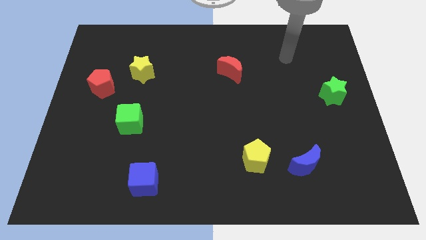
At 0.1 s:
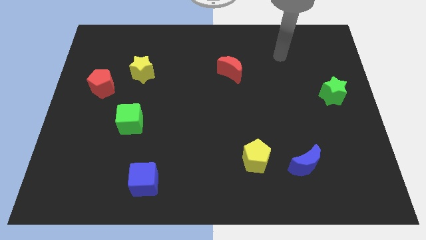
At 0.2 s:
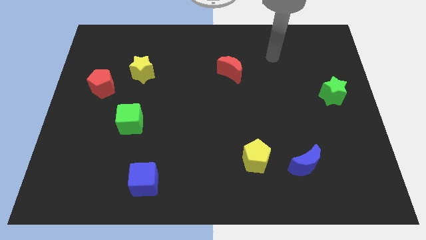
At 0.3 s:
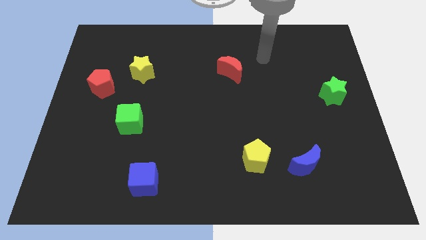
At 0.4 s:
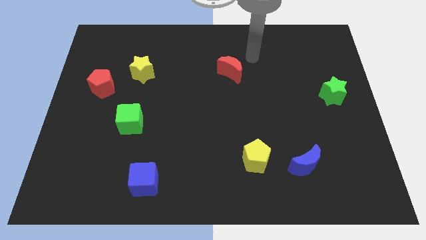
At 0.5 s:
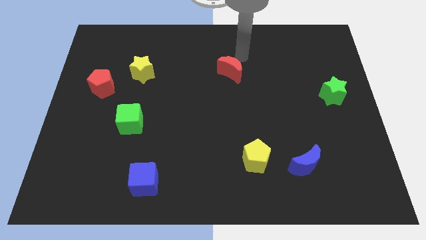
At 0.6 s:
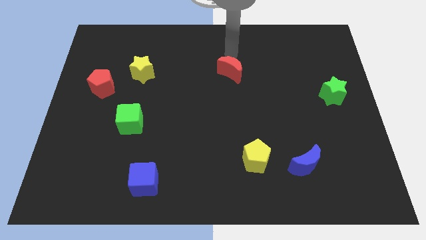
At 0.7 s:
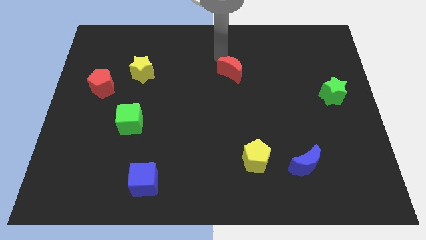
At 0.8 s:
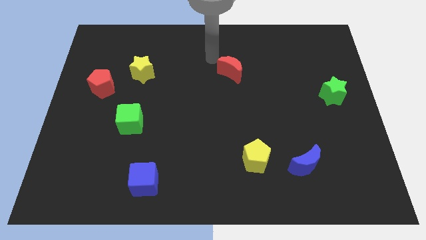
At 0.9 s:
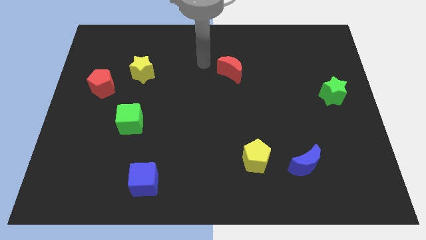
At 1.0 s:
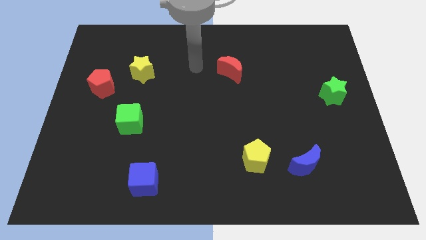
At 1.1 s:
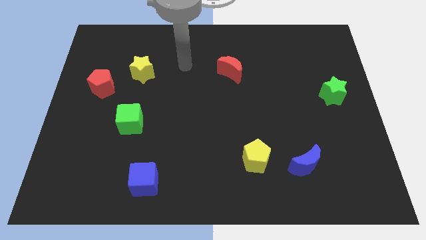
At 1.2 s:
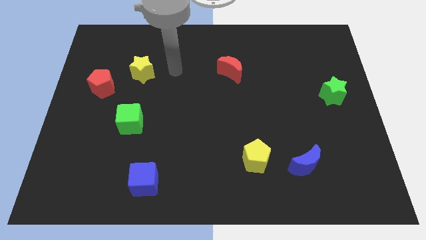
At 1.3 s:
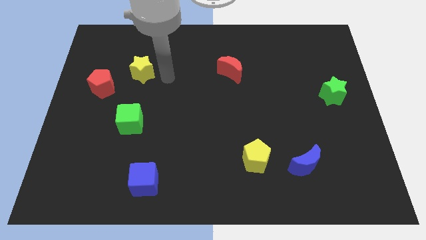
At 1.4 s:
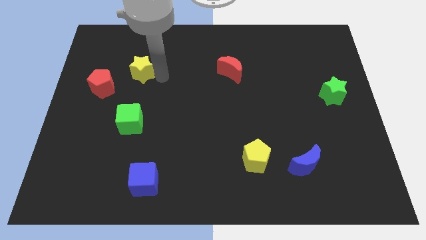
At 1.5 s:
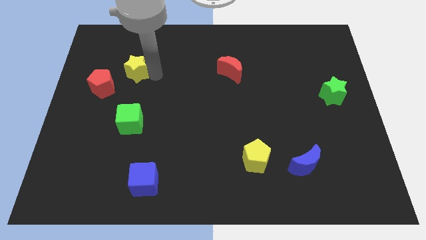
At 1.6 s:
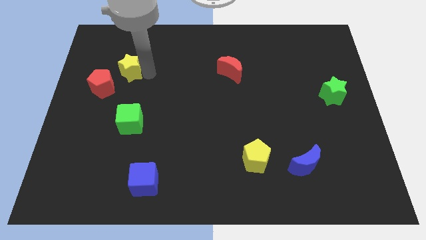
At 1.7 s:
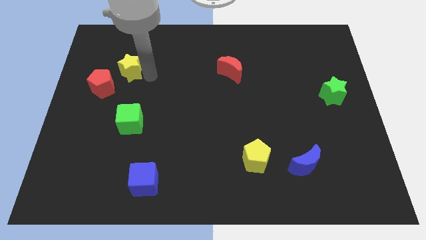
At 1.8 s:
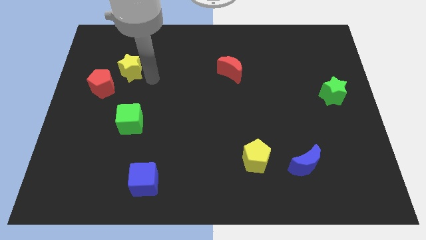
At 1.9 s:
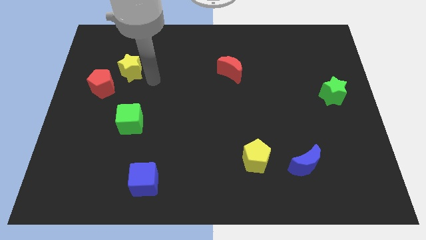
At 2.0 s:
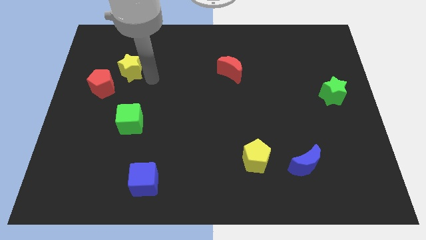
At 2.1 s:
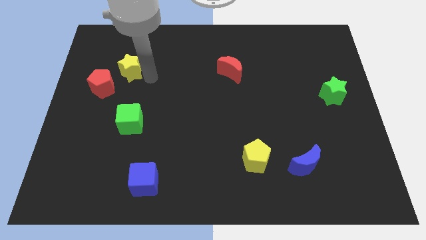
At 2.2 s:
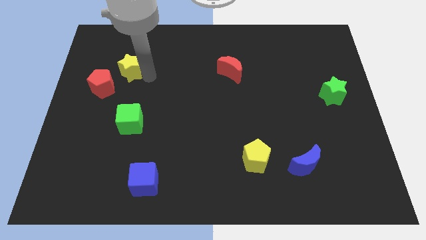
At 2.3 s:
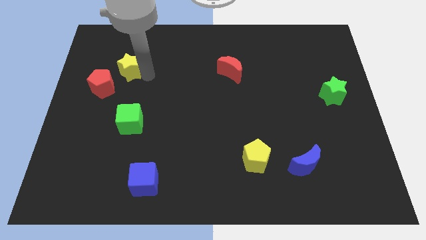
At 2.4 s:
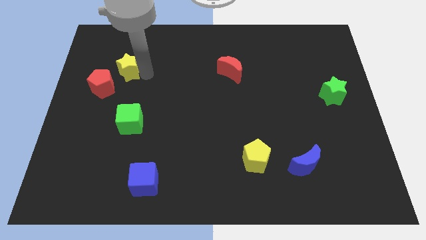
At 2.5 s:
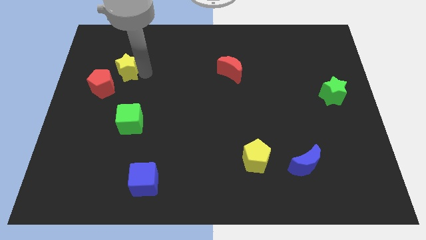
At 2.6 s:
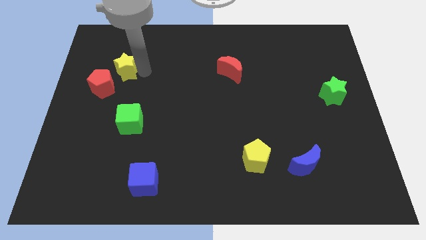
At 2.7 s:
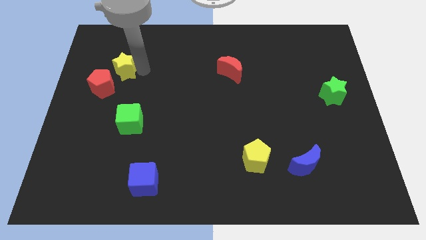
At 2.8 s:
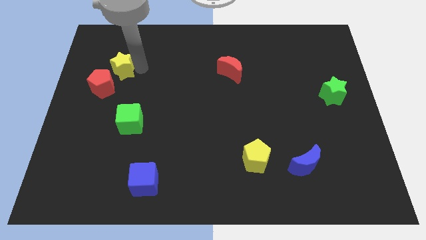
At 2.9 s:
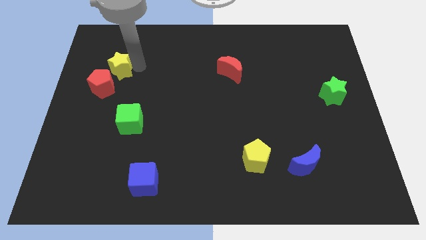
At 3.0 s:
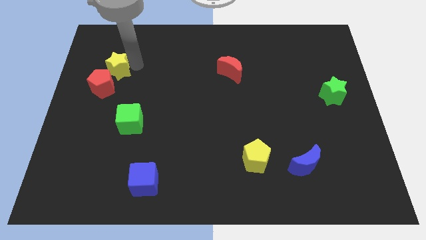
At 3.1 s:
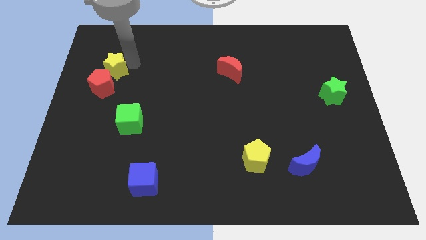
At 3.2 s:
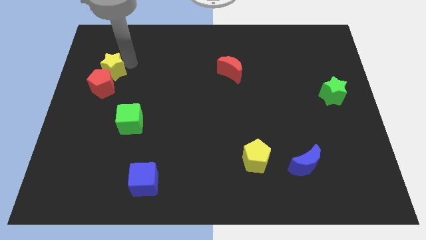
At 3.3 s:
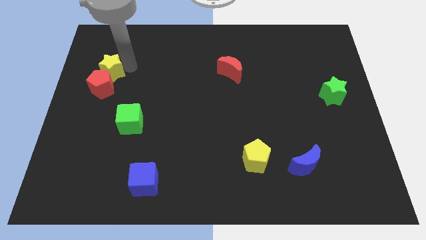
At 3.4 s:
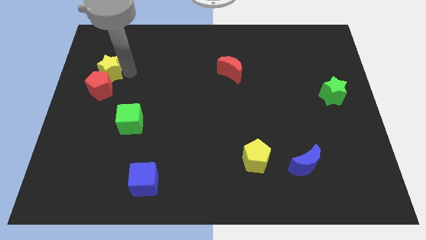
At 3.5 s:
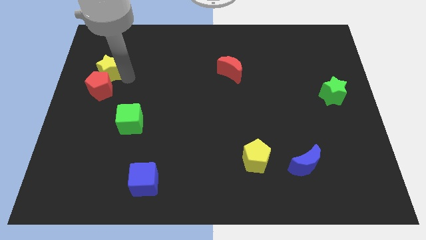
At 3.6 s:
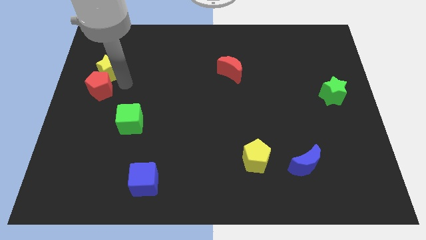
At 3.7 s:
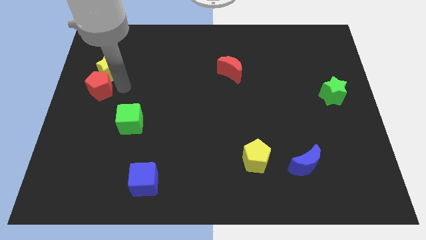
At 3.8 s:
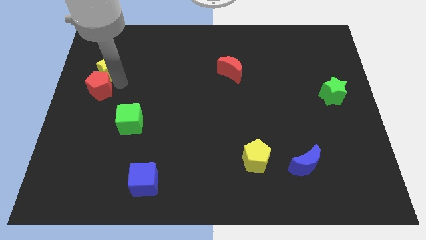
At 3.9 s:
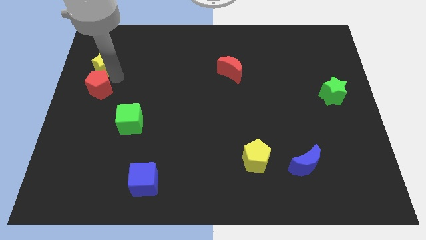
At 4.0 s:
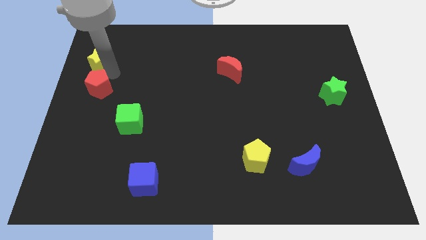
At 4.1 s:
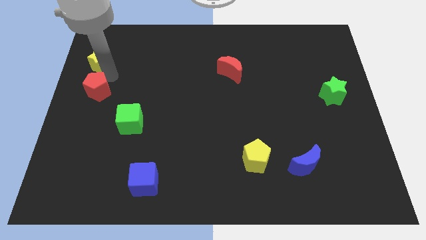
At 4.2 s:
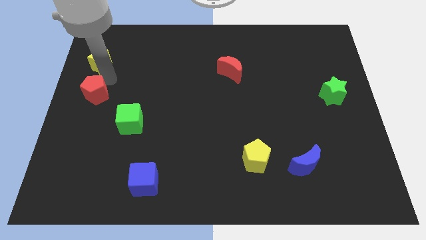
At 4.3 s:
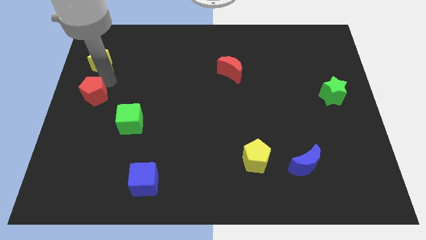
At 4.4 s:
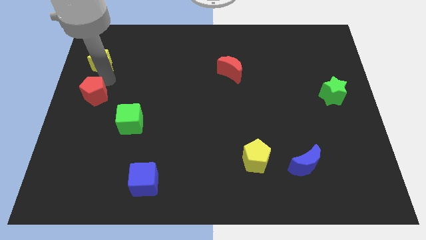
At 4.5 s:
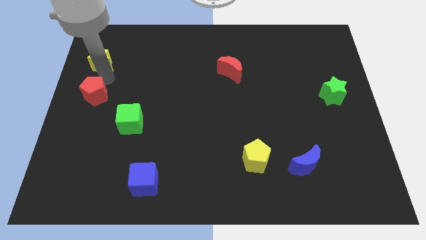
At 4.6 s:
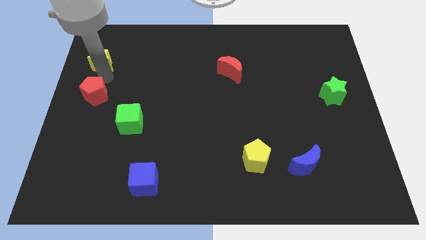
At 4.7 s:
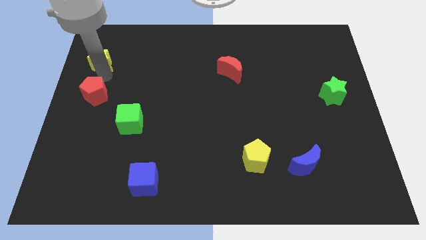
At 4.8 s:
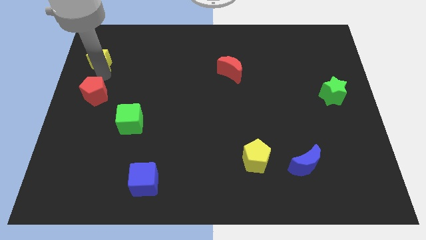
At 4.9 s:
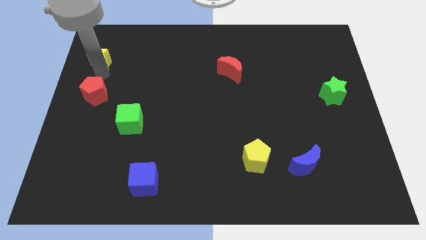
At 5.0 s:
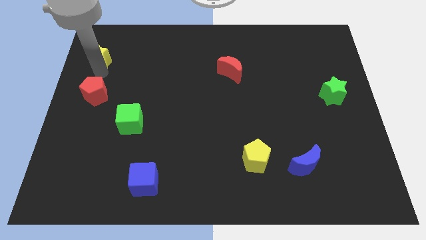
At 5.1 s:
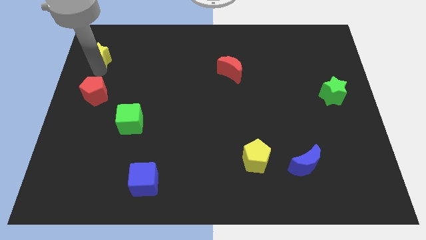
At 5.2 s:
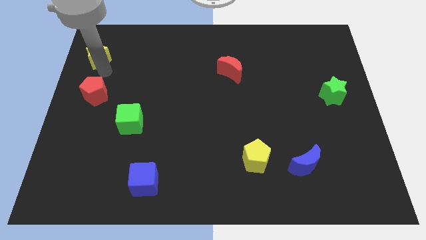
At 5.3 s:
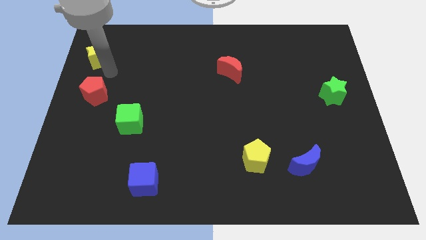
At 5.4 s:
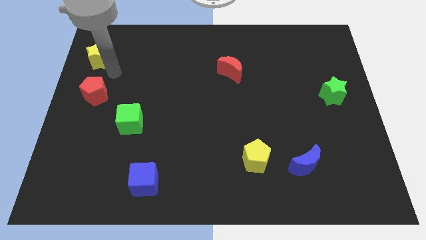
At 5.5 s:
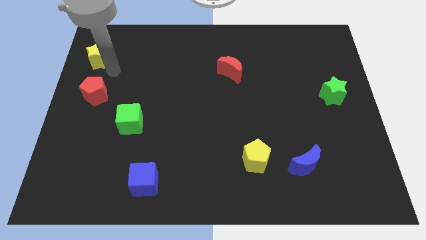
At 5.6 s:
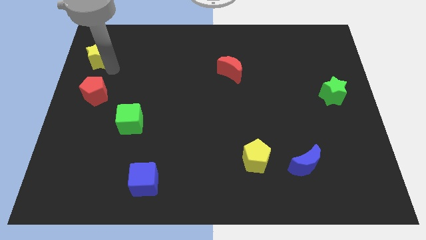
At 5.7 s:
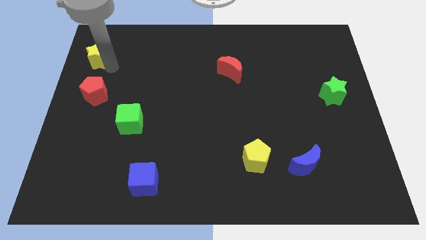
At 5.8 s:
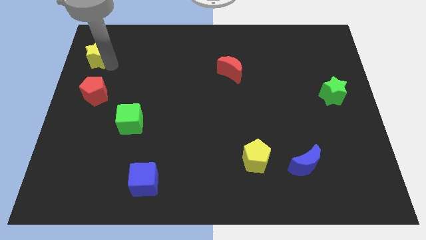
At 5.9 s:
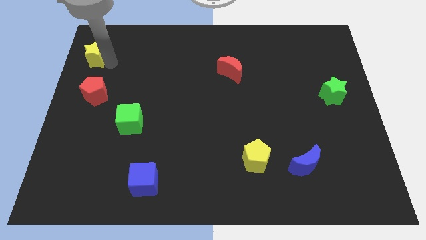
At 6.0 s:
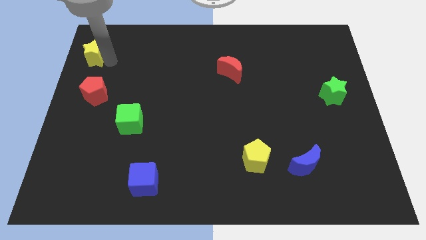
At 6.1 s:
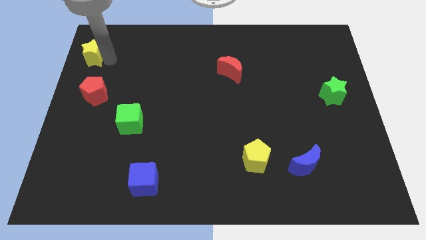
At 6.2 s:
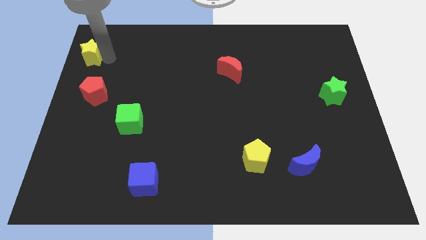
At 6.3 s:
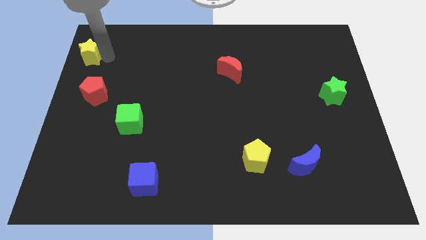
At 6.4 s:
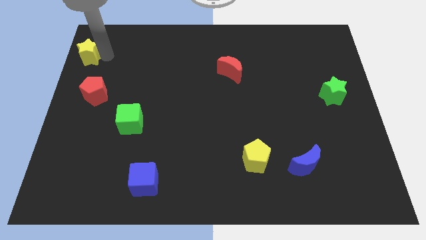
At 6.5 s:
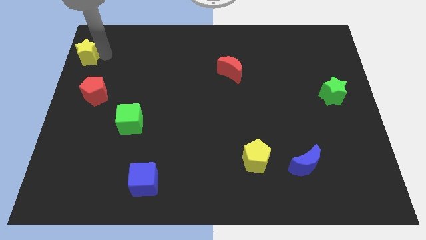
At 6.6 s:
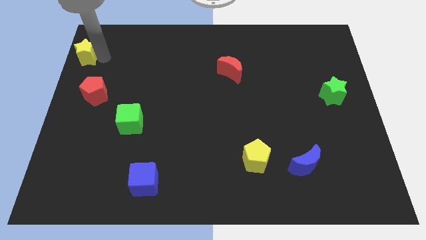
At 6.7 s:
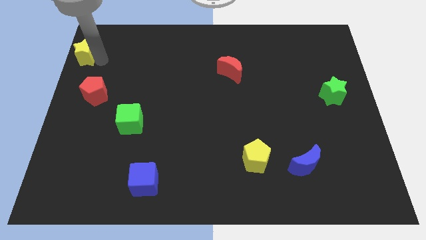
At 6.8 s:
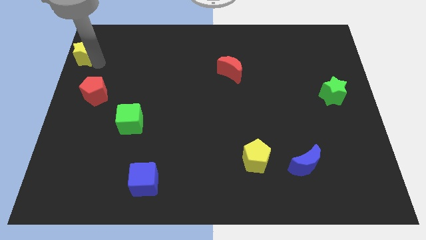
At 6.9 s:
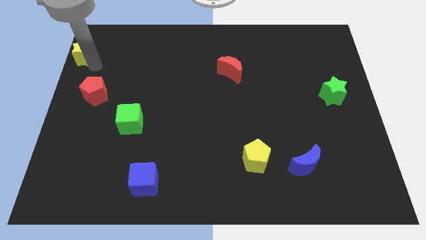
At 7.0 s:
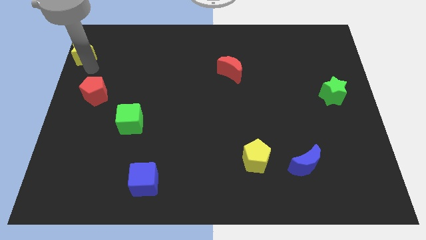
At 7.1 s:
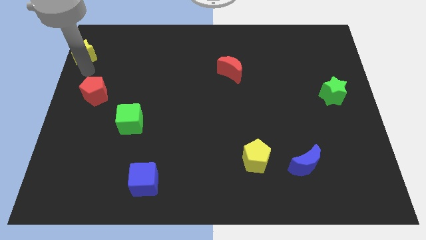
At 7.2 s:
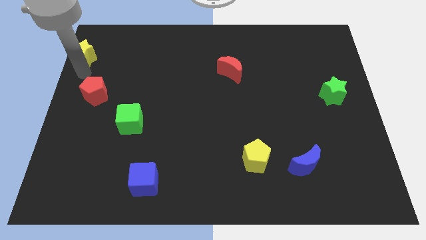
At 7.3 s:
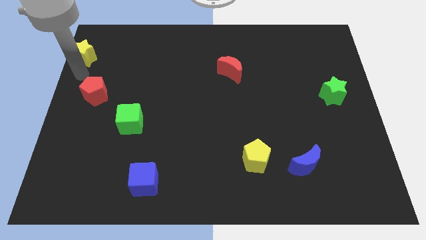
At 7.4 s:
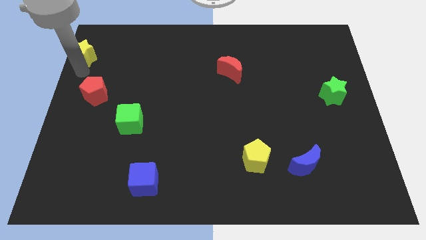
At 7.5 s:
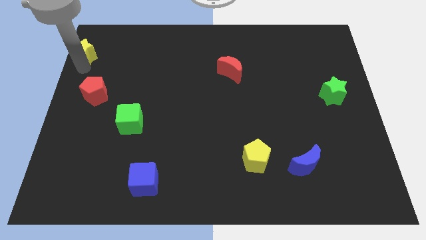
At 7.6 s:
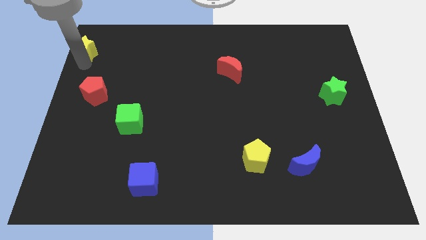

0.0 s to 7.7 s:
move the yellow star to the top left
